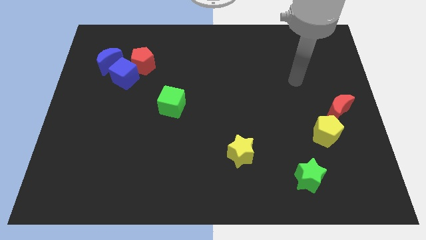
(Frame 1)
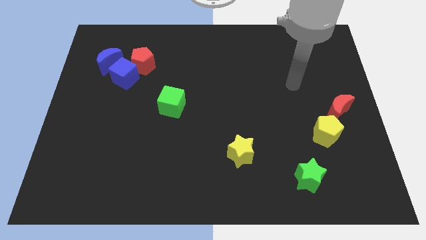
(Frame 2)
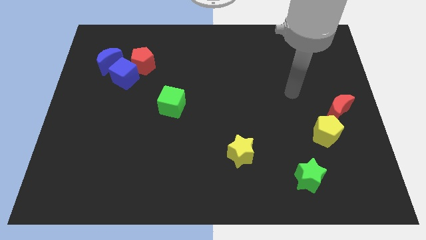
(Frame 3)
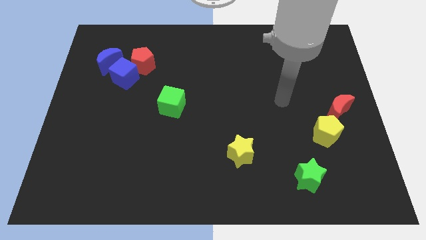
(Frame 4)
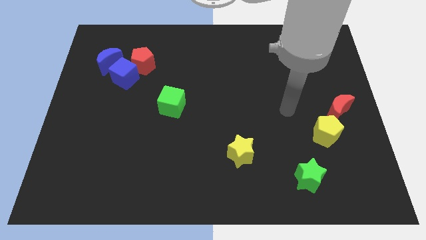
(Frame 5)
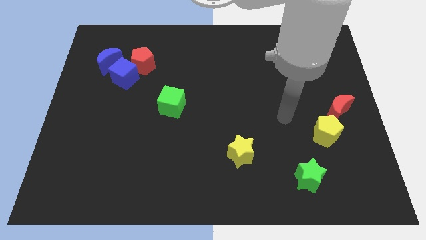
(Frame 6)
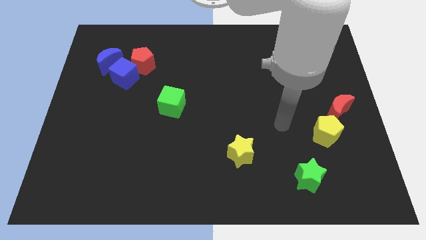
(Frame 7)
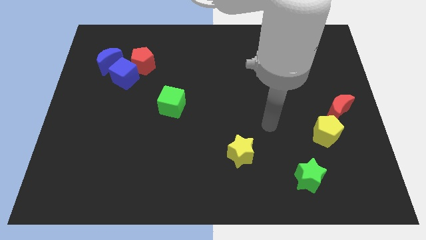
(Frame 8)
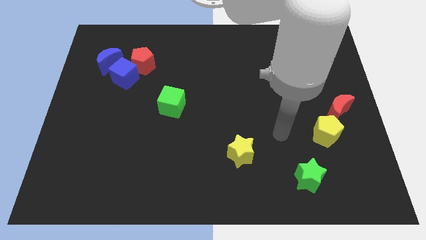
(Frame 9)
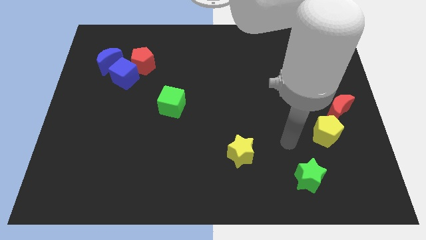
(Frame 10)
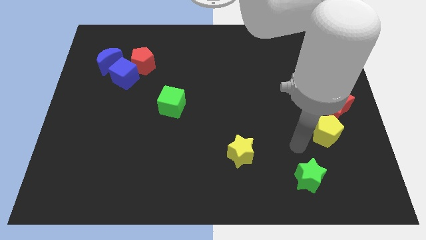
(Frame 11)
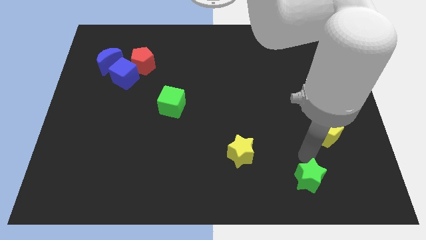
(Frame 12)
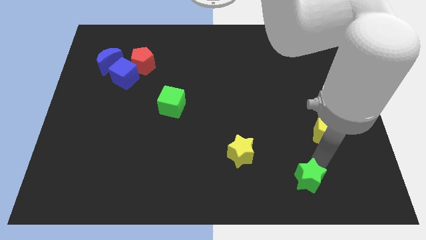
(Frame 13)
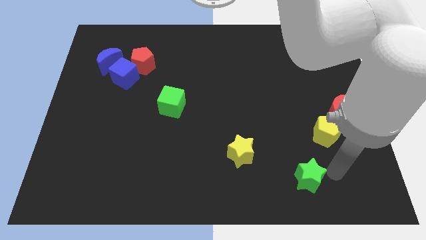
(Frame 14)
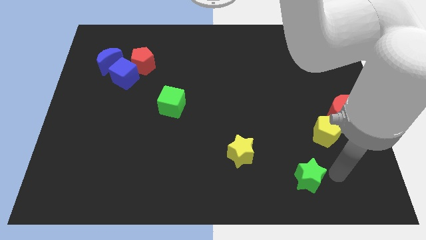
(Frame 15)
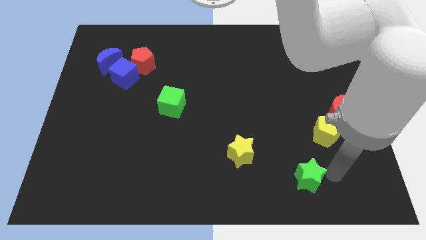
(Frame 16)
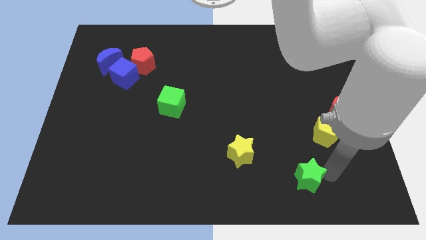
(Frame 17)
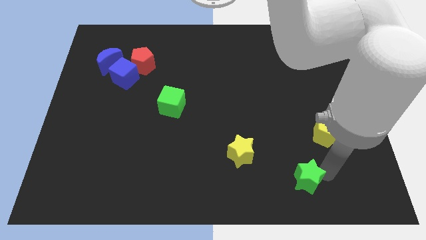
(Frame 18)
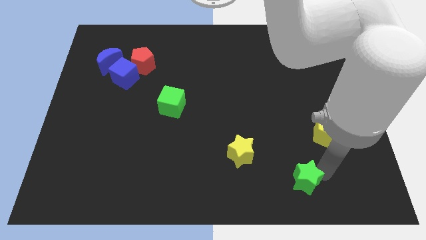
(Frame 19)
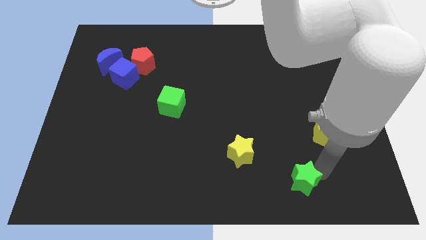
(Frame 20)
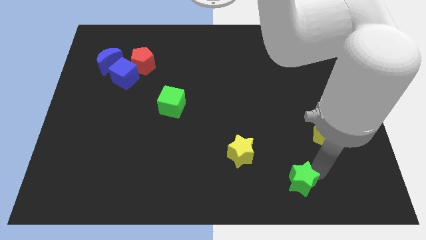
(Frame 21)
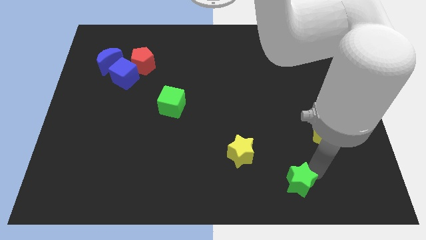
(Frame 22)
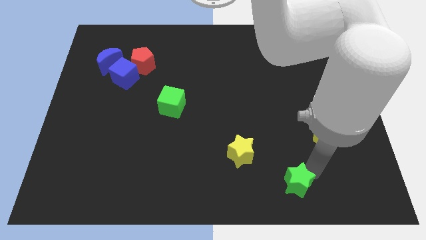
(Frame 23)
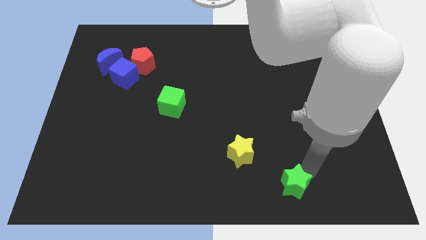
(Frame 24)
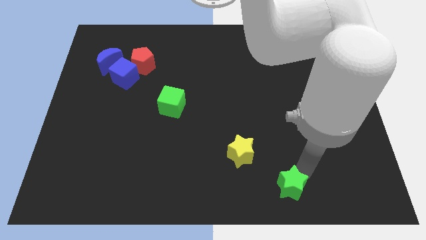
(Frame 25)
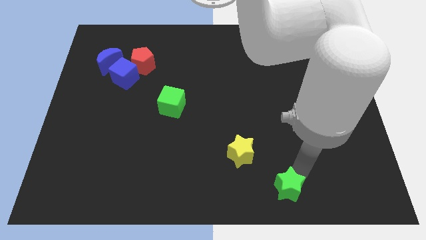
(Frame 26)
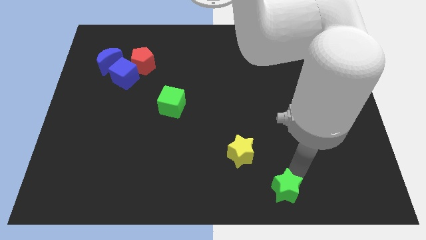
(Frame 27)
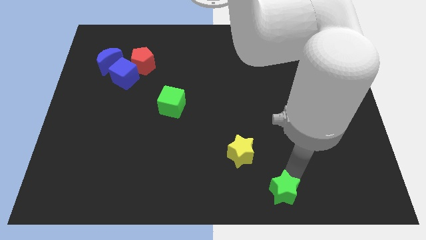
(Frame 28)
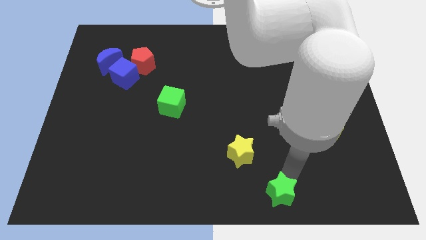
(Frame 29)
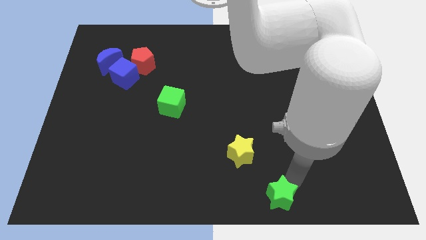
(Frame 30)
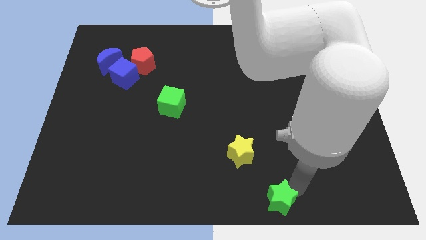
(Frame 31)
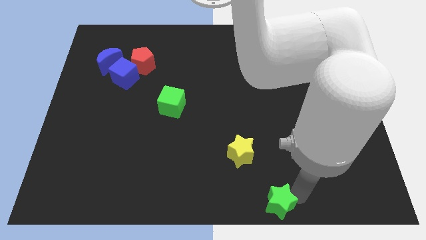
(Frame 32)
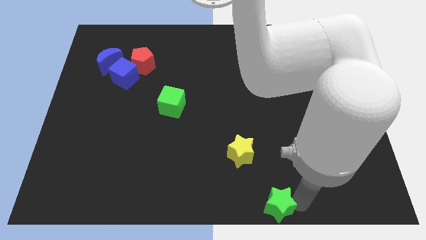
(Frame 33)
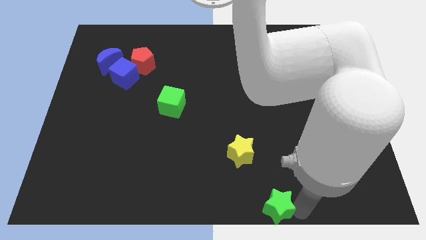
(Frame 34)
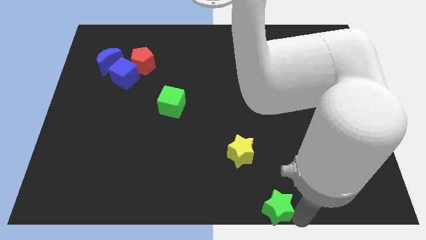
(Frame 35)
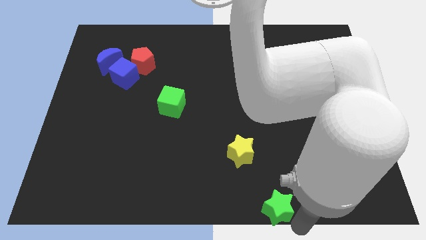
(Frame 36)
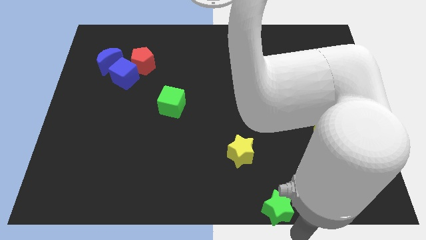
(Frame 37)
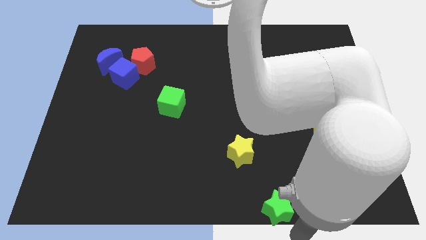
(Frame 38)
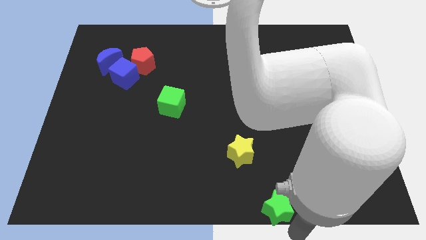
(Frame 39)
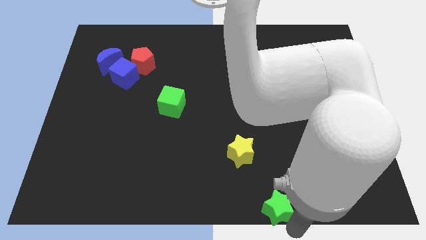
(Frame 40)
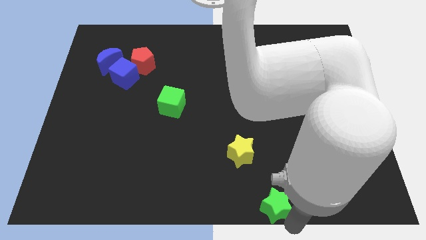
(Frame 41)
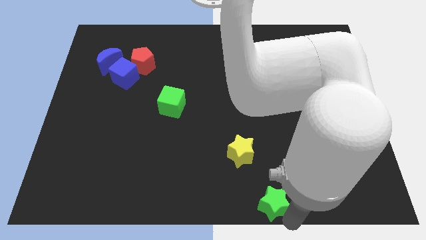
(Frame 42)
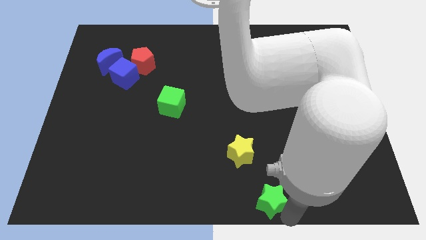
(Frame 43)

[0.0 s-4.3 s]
slightly push the green star to the left

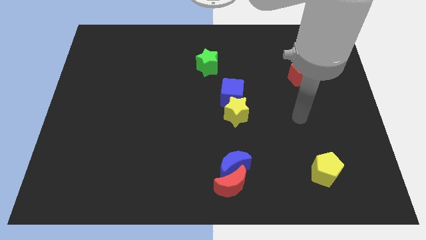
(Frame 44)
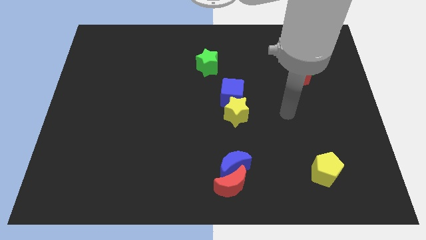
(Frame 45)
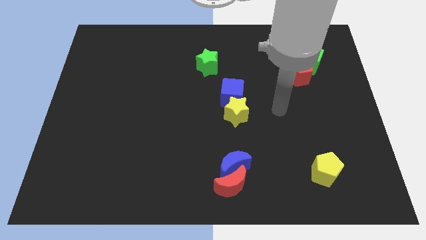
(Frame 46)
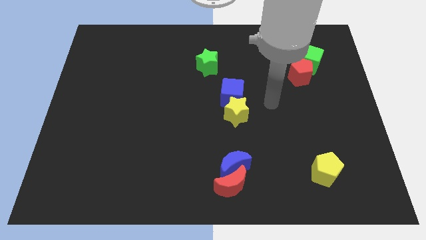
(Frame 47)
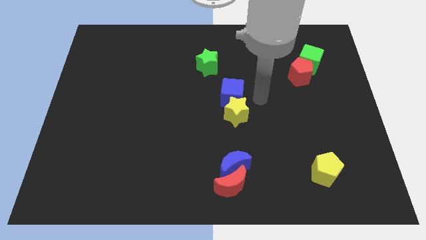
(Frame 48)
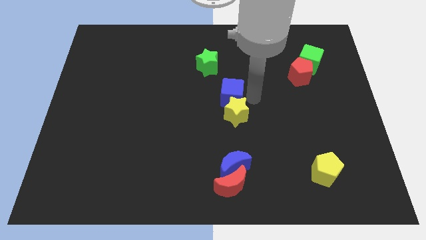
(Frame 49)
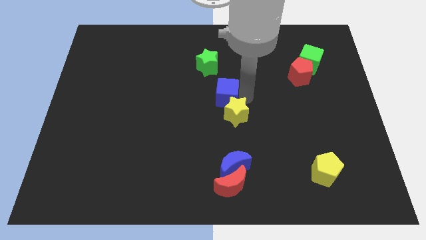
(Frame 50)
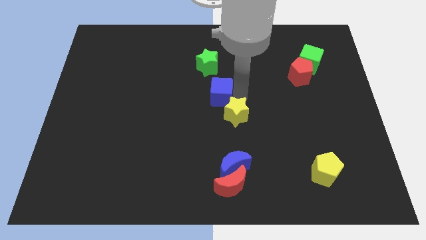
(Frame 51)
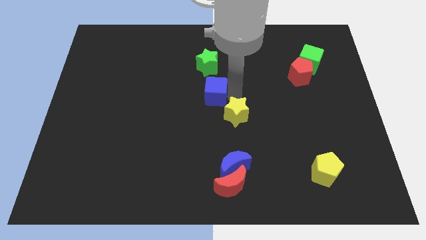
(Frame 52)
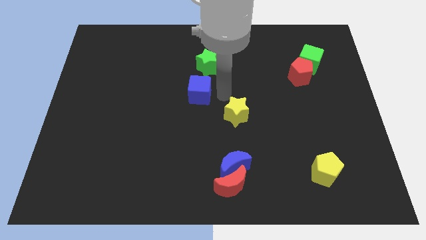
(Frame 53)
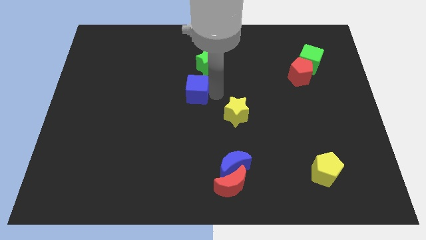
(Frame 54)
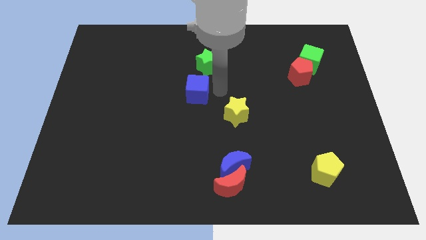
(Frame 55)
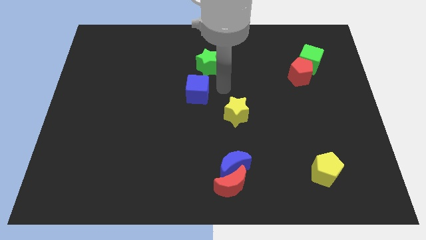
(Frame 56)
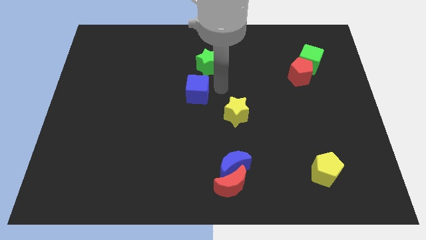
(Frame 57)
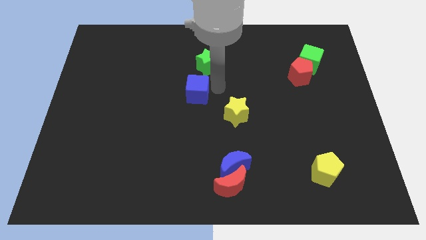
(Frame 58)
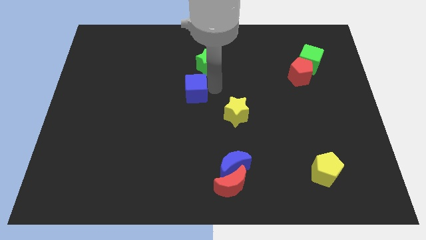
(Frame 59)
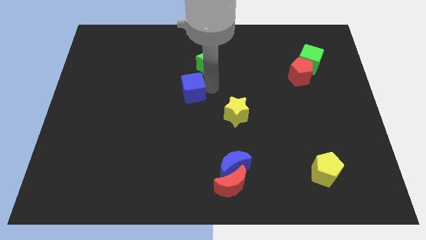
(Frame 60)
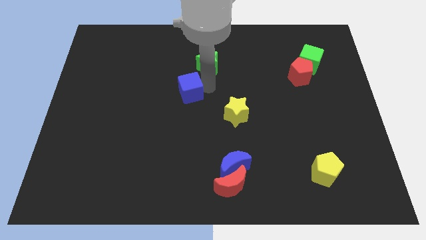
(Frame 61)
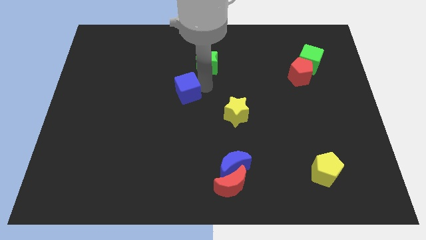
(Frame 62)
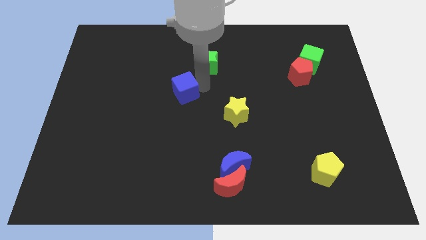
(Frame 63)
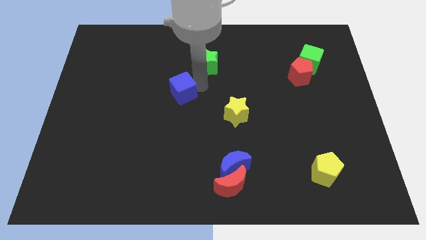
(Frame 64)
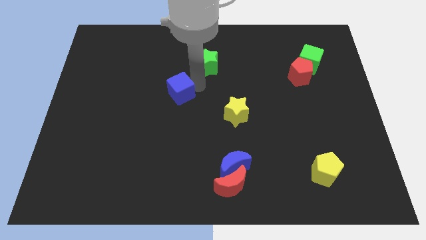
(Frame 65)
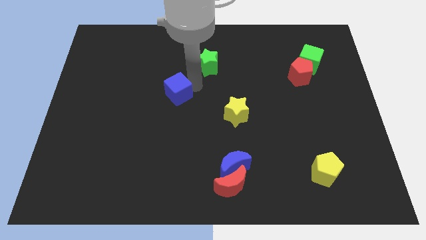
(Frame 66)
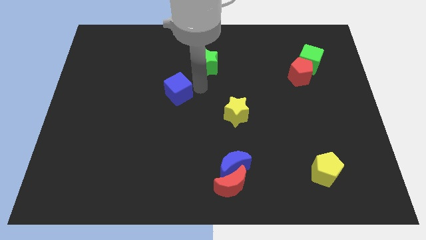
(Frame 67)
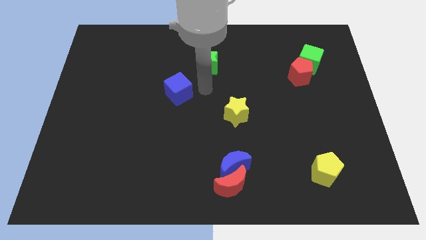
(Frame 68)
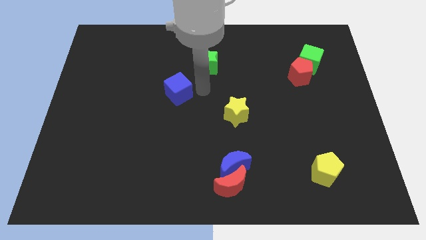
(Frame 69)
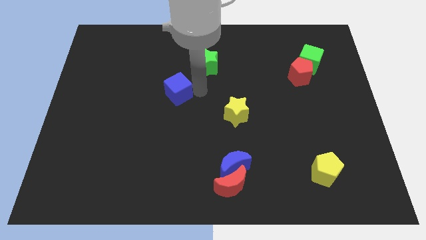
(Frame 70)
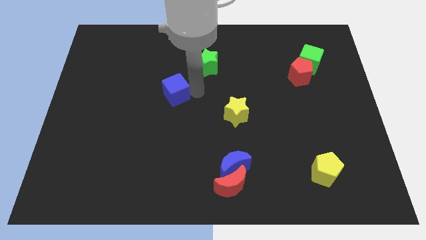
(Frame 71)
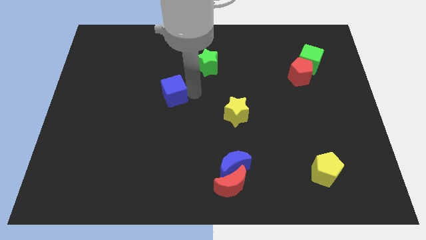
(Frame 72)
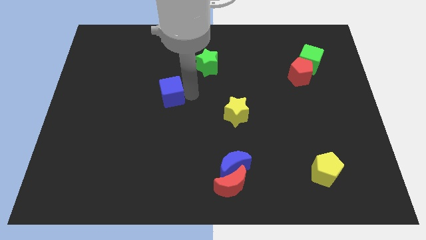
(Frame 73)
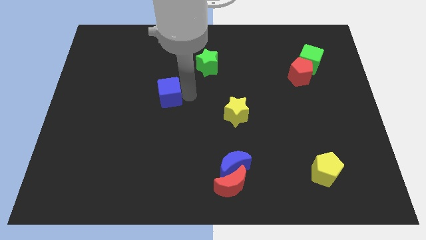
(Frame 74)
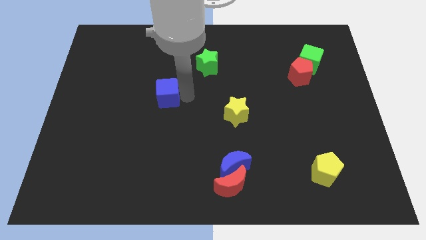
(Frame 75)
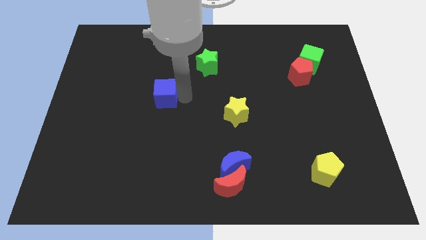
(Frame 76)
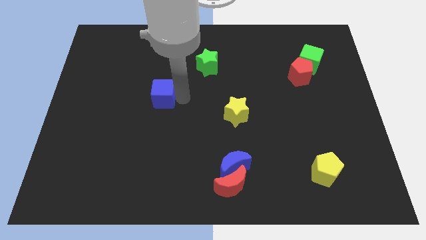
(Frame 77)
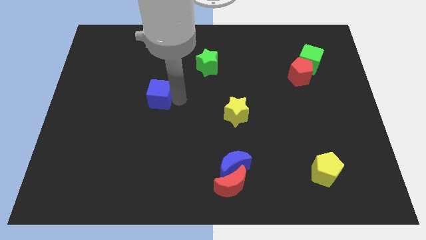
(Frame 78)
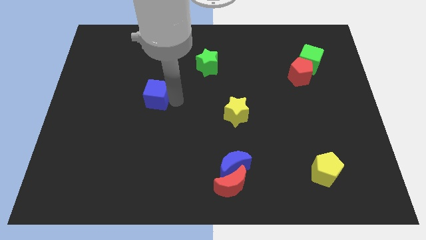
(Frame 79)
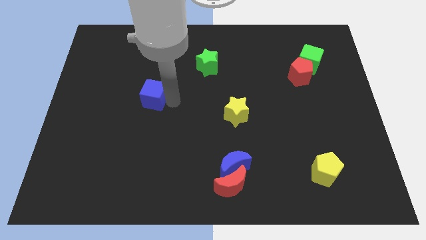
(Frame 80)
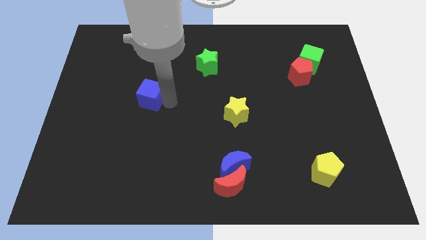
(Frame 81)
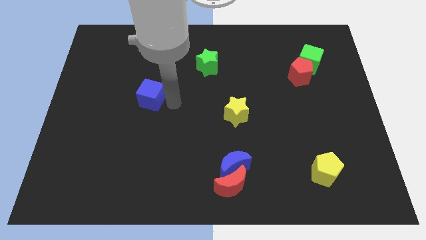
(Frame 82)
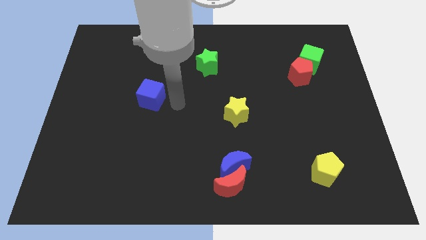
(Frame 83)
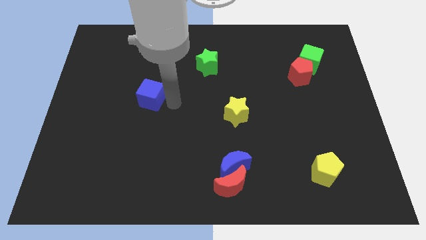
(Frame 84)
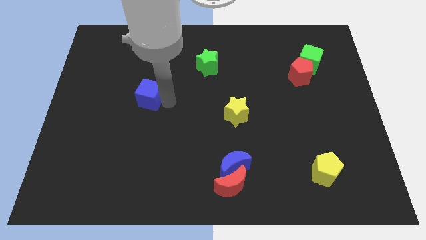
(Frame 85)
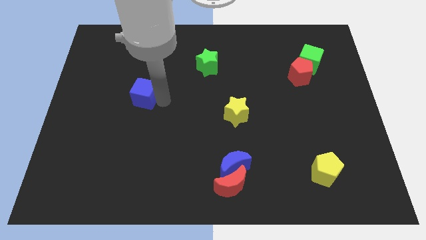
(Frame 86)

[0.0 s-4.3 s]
move the blue cube to the left
